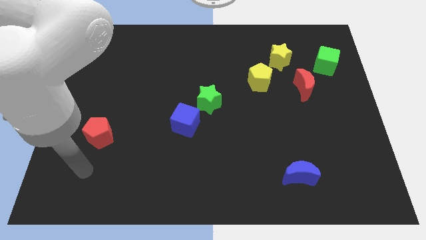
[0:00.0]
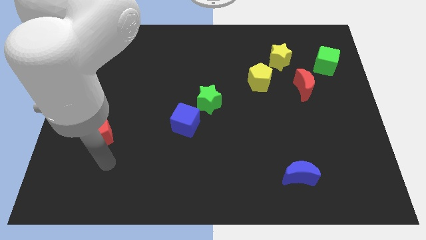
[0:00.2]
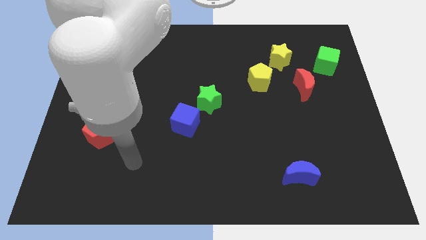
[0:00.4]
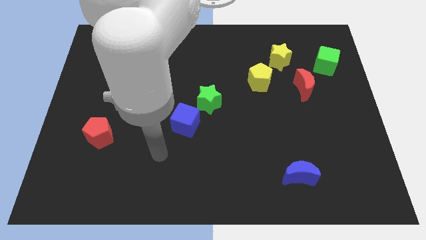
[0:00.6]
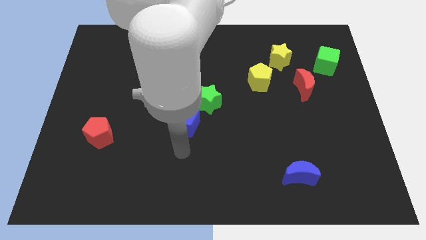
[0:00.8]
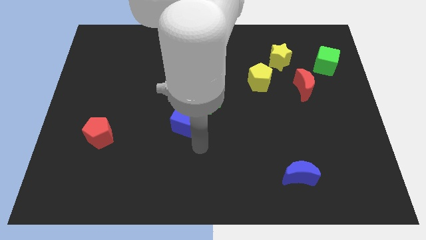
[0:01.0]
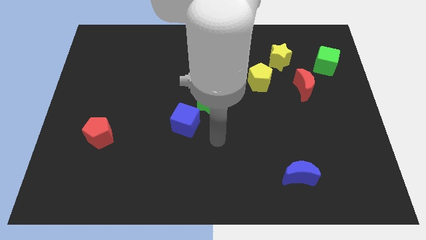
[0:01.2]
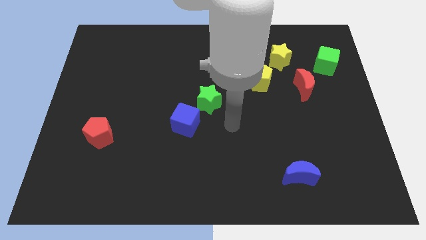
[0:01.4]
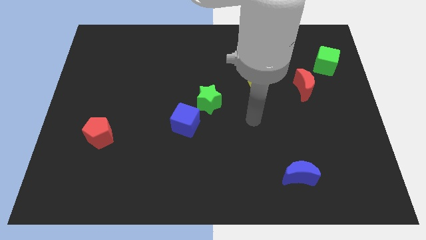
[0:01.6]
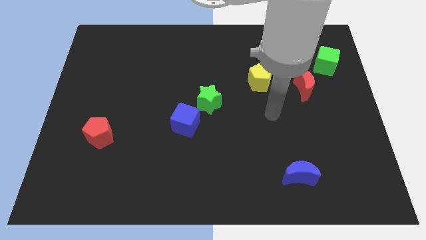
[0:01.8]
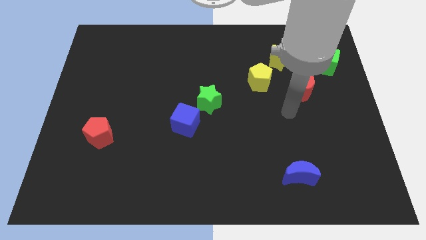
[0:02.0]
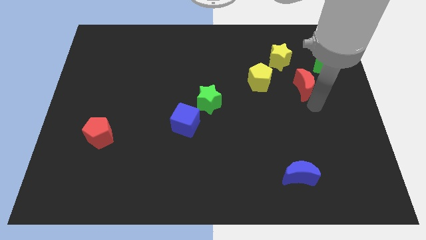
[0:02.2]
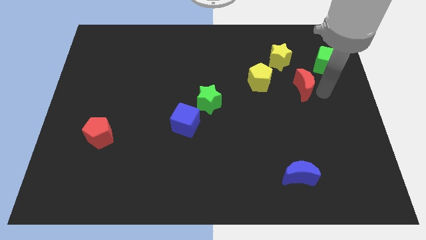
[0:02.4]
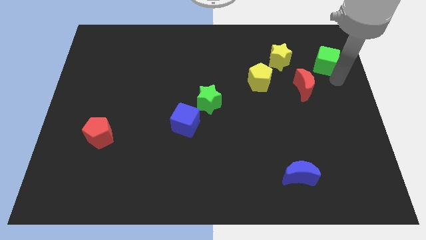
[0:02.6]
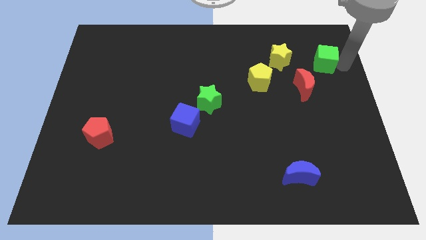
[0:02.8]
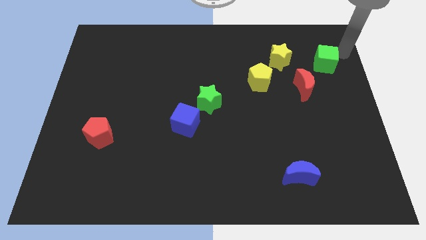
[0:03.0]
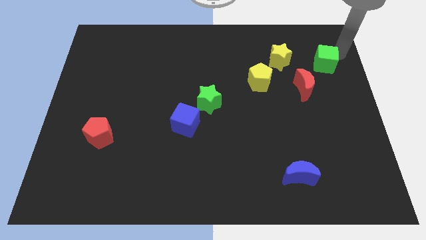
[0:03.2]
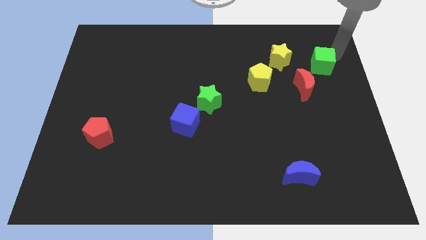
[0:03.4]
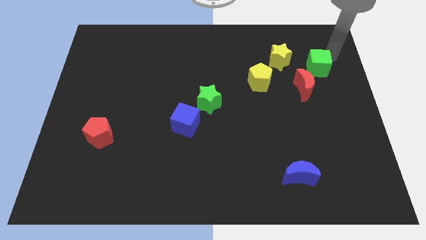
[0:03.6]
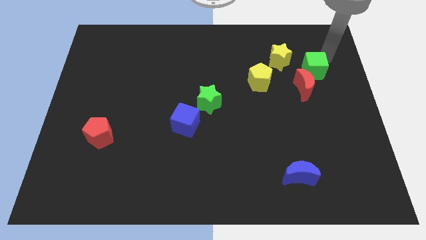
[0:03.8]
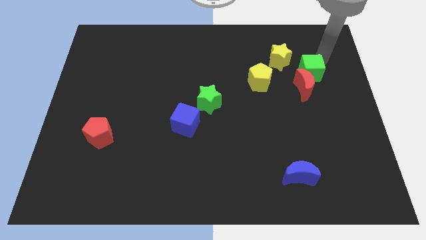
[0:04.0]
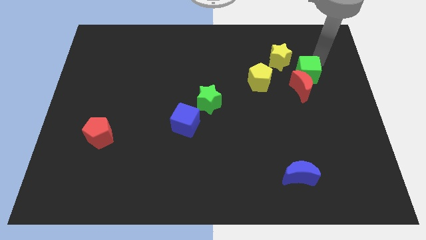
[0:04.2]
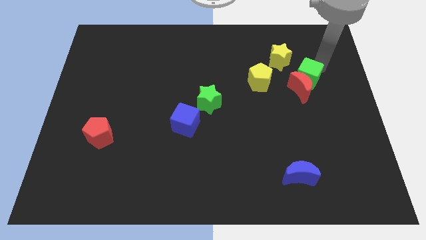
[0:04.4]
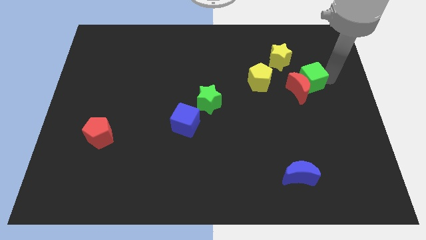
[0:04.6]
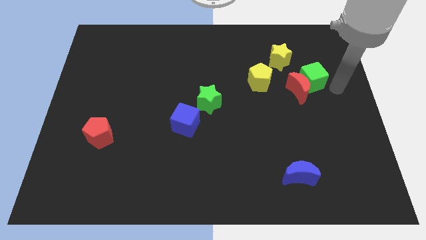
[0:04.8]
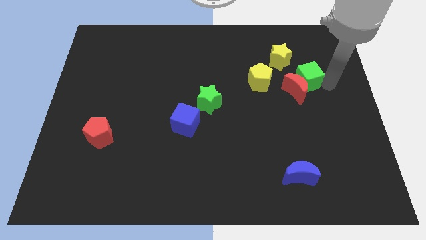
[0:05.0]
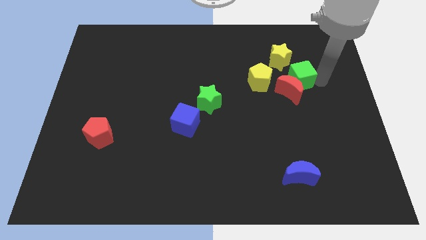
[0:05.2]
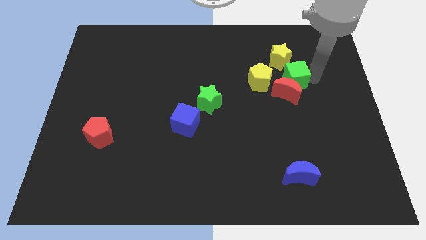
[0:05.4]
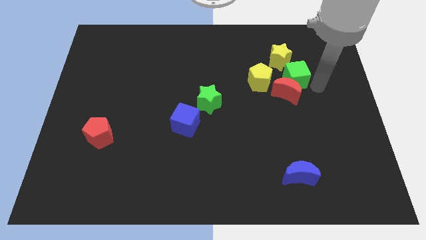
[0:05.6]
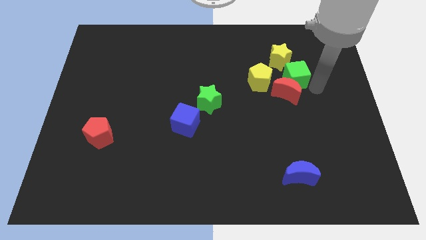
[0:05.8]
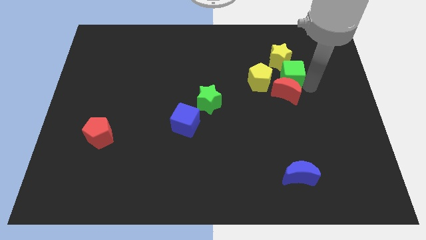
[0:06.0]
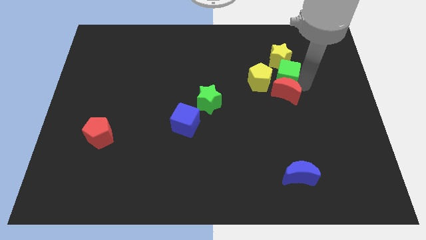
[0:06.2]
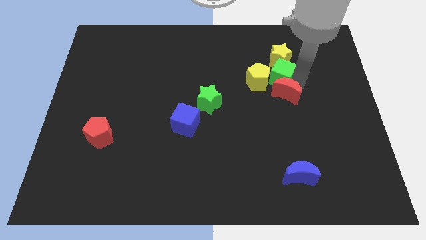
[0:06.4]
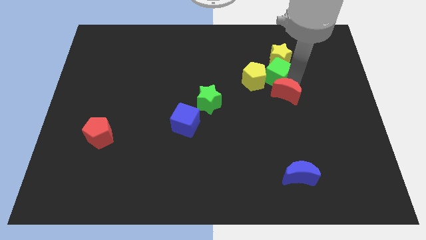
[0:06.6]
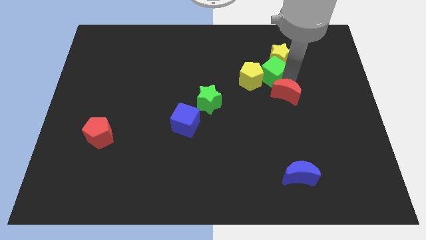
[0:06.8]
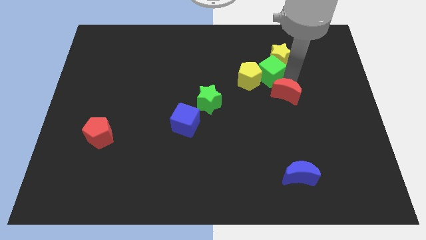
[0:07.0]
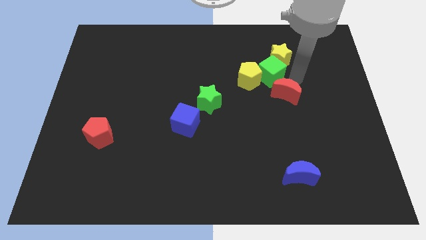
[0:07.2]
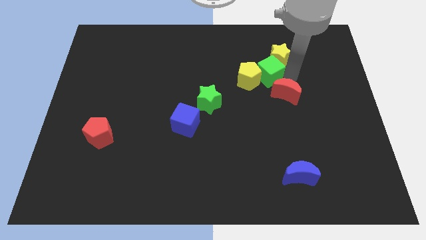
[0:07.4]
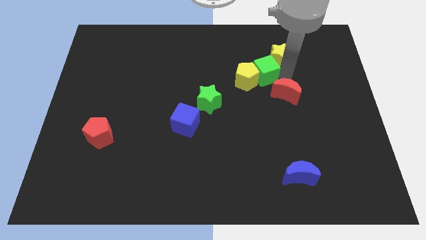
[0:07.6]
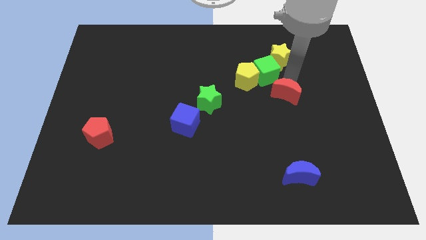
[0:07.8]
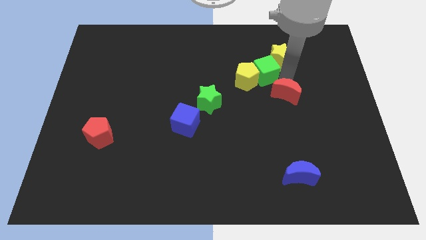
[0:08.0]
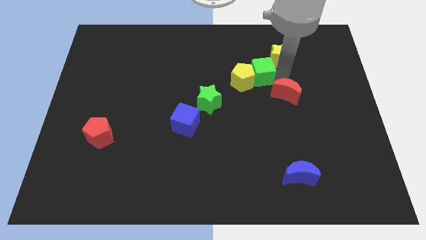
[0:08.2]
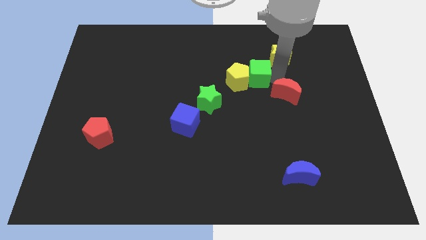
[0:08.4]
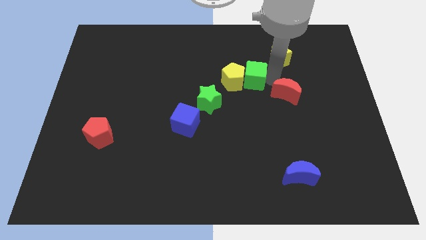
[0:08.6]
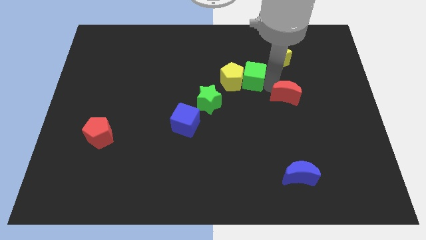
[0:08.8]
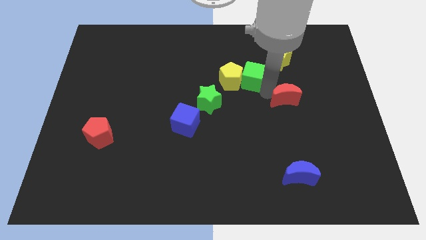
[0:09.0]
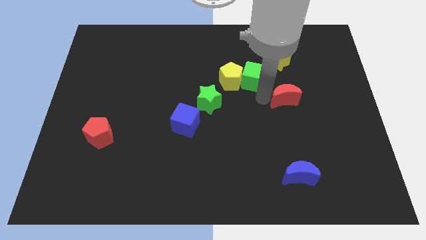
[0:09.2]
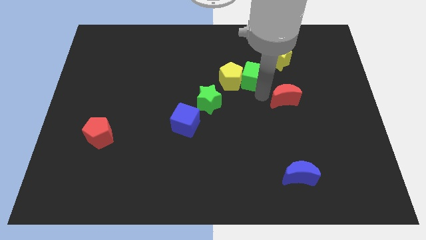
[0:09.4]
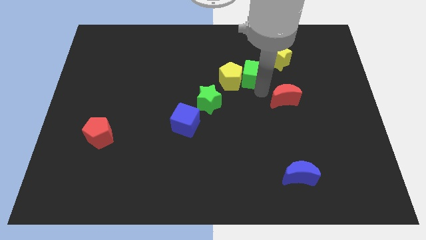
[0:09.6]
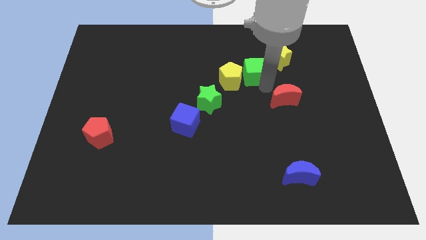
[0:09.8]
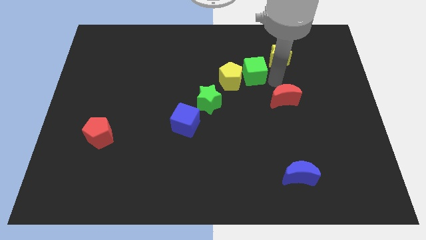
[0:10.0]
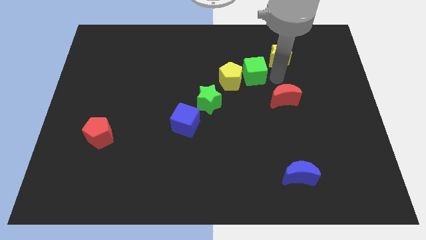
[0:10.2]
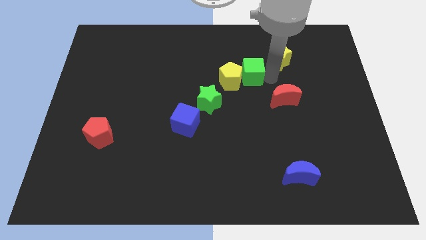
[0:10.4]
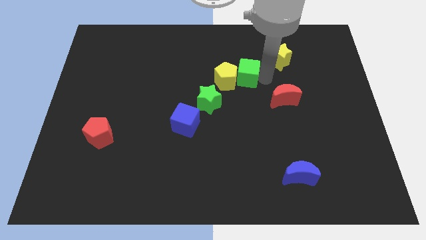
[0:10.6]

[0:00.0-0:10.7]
push the green cube to the left

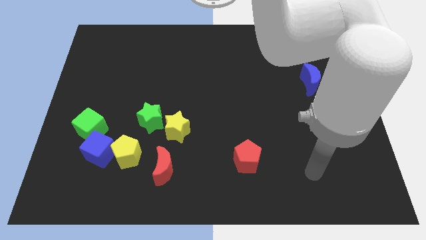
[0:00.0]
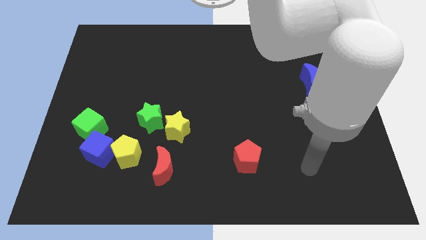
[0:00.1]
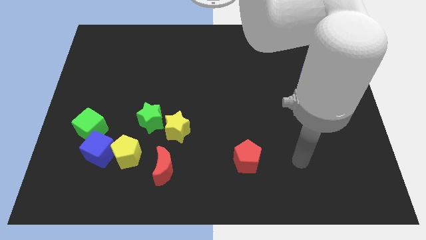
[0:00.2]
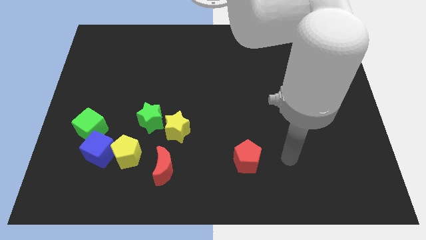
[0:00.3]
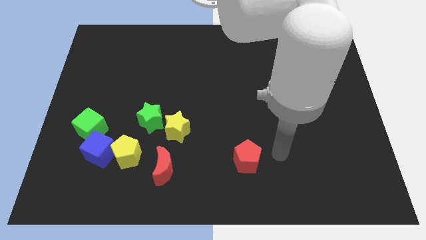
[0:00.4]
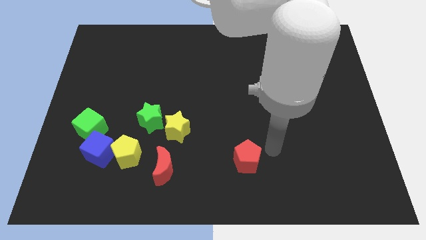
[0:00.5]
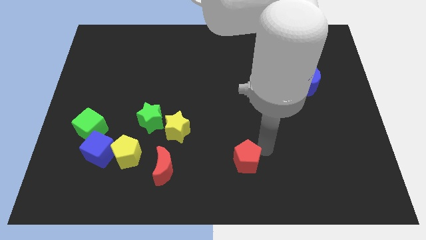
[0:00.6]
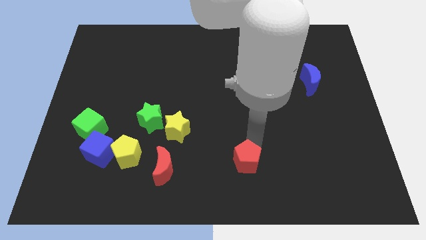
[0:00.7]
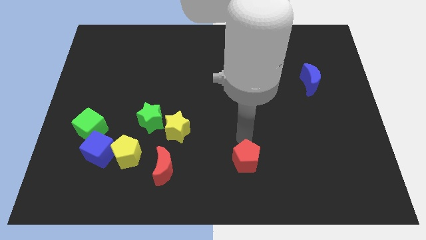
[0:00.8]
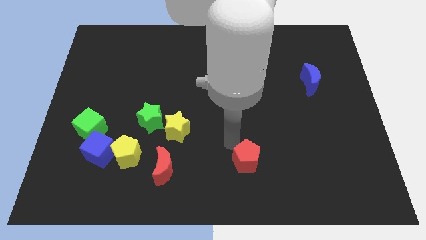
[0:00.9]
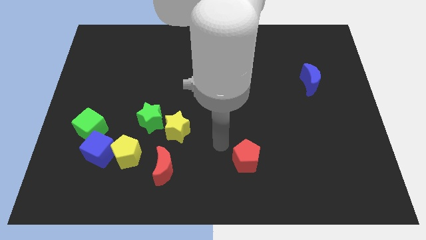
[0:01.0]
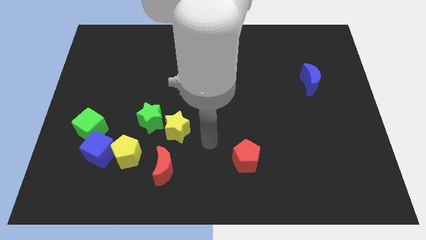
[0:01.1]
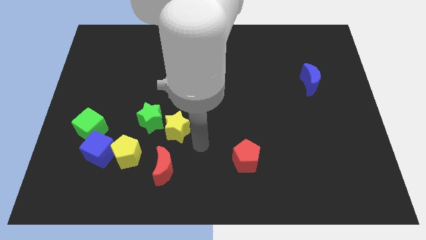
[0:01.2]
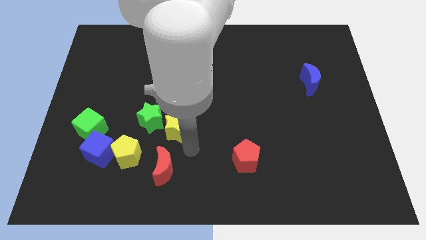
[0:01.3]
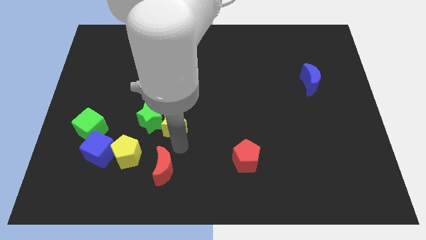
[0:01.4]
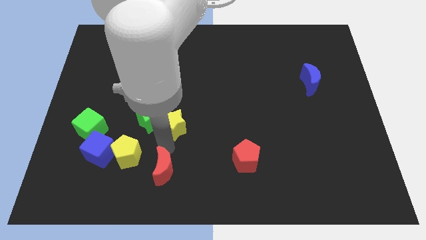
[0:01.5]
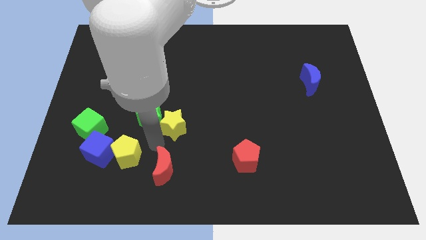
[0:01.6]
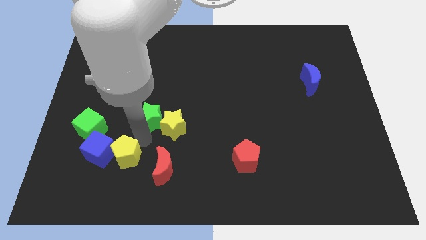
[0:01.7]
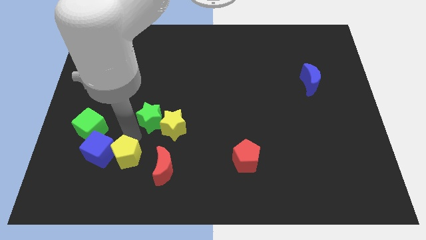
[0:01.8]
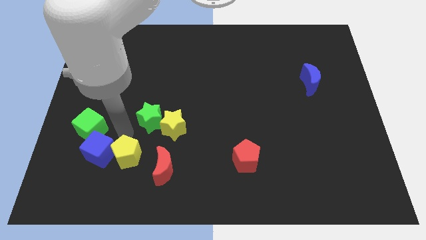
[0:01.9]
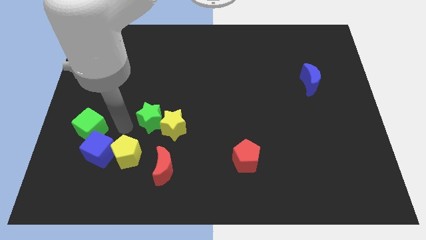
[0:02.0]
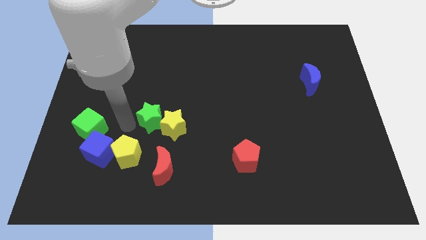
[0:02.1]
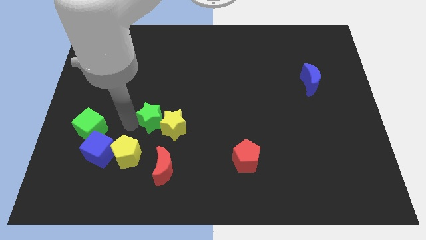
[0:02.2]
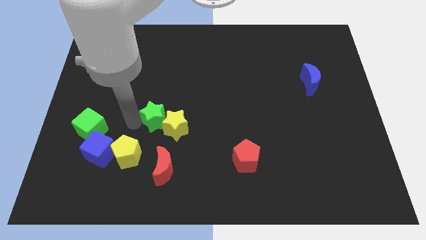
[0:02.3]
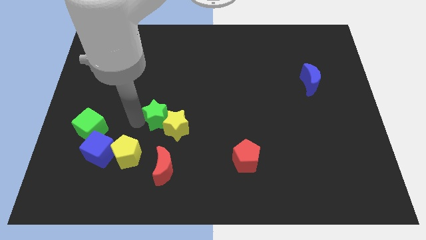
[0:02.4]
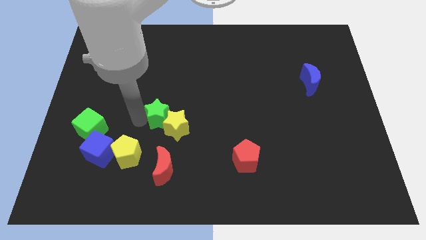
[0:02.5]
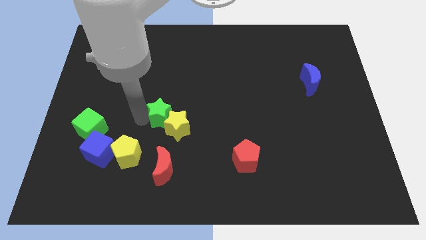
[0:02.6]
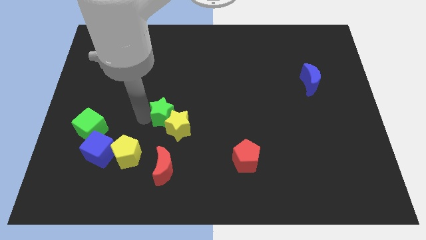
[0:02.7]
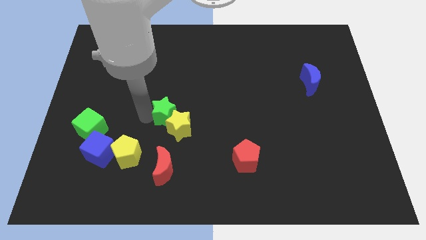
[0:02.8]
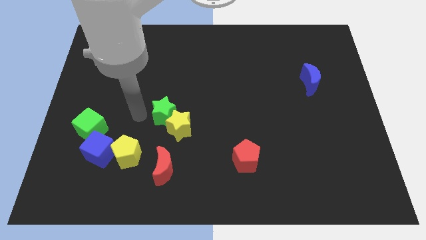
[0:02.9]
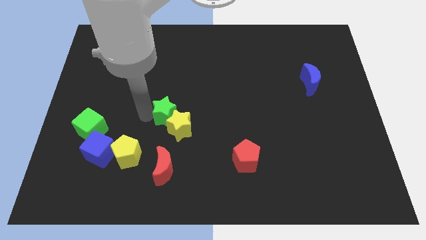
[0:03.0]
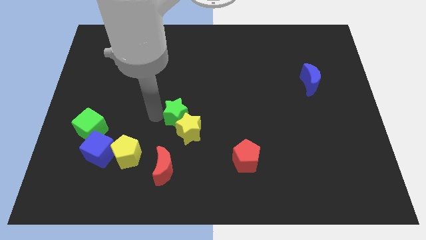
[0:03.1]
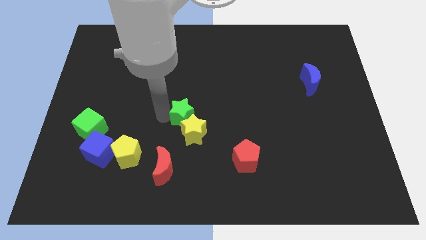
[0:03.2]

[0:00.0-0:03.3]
slide the green star to the right slightly
